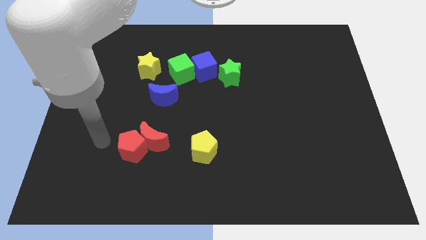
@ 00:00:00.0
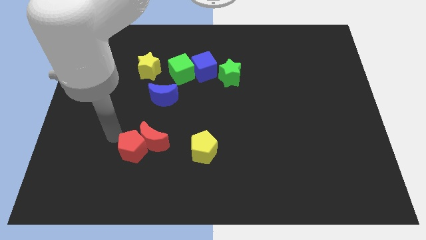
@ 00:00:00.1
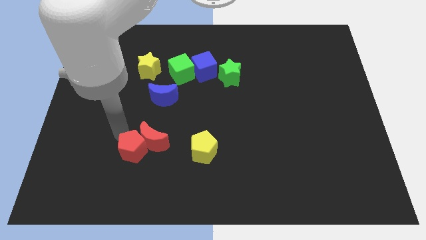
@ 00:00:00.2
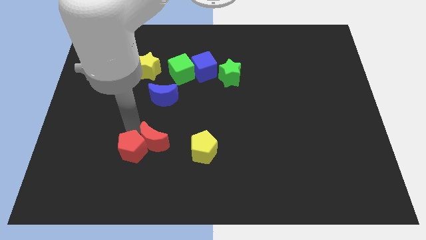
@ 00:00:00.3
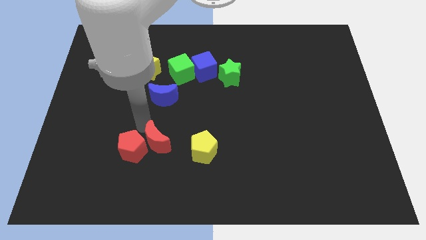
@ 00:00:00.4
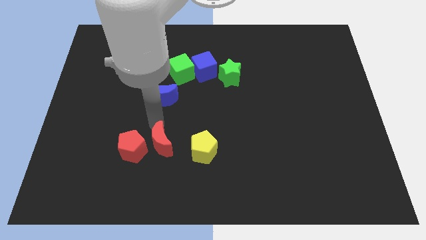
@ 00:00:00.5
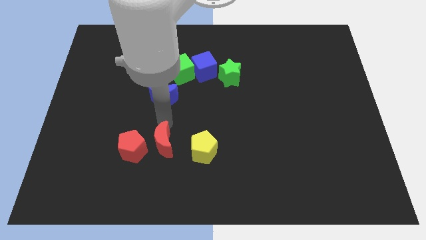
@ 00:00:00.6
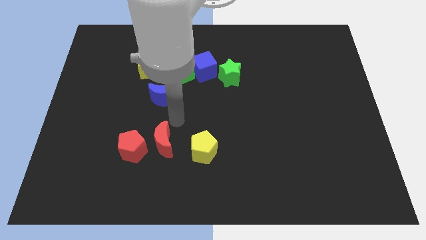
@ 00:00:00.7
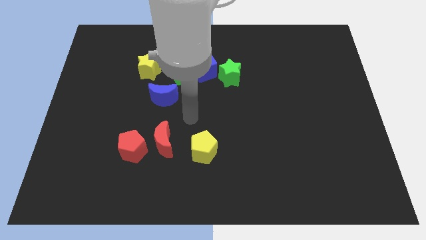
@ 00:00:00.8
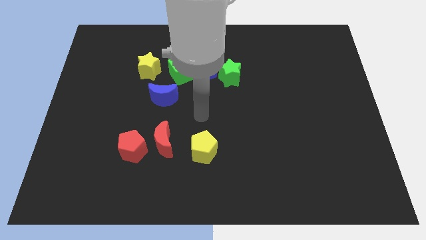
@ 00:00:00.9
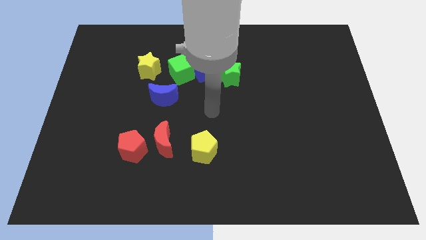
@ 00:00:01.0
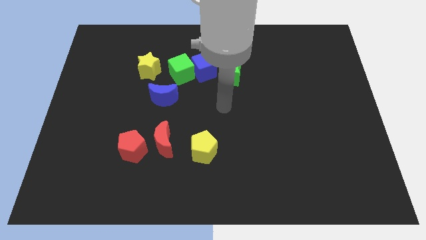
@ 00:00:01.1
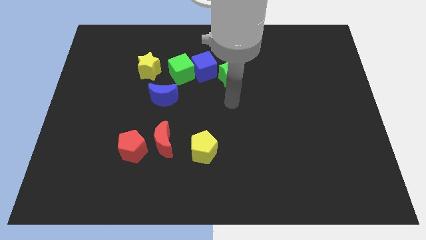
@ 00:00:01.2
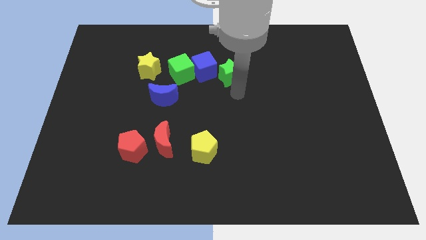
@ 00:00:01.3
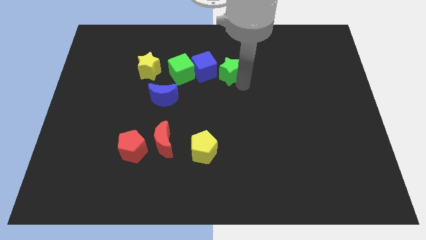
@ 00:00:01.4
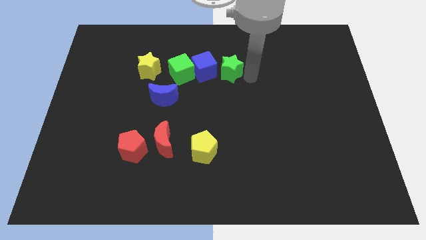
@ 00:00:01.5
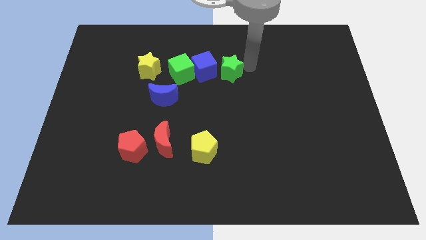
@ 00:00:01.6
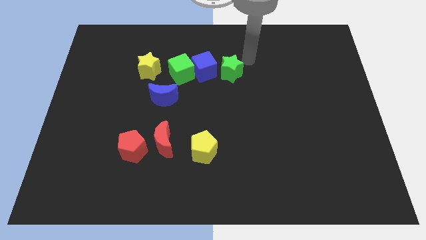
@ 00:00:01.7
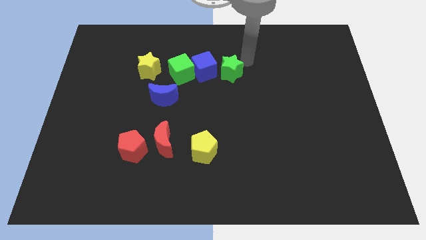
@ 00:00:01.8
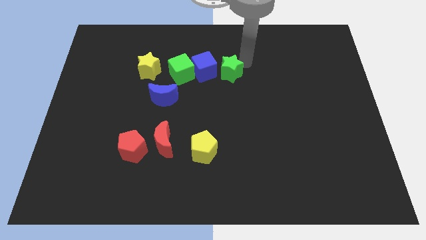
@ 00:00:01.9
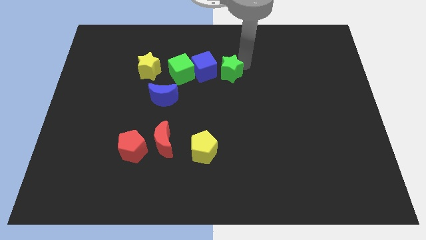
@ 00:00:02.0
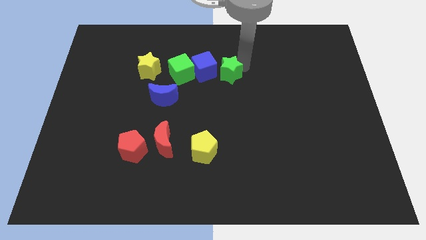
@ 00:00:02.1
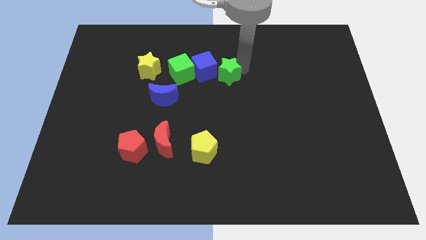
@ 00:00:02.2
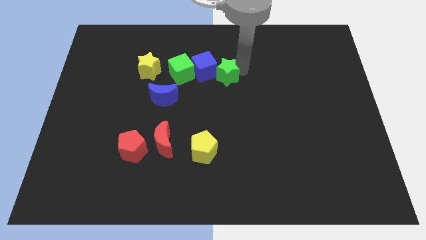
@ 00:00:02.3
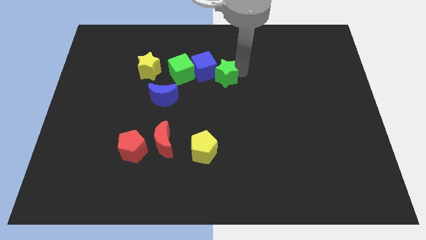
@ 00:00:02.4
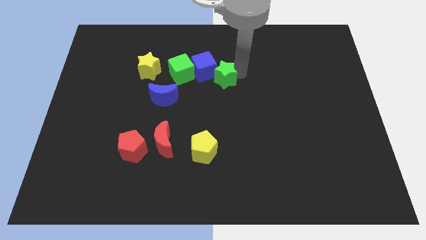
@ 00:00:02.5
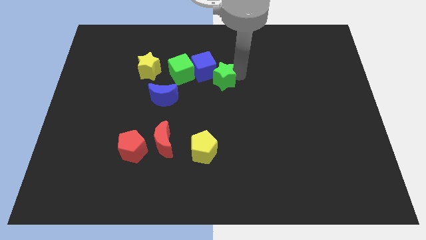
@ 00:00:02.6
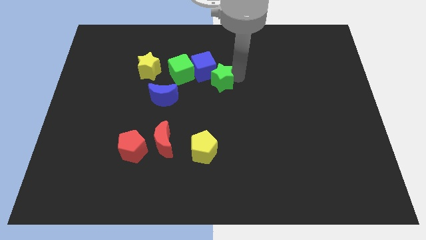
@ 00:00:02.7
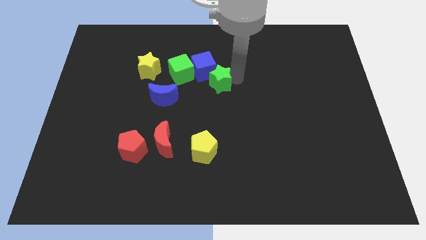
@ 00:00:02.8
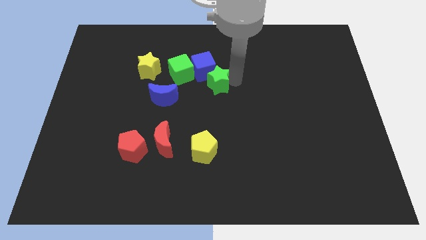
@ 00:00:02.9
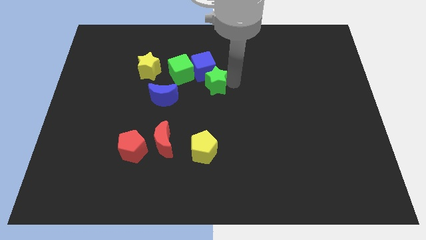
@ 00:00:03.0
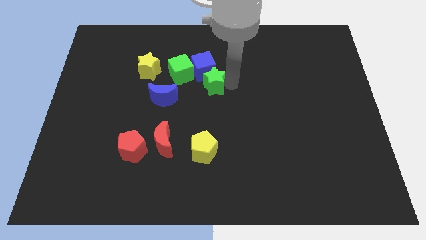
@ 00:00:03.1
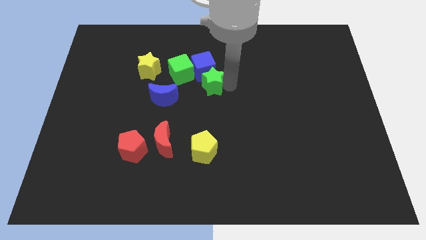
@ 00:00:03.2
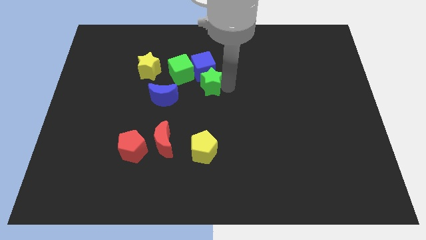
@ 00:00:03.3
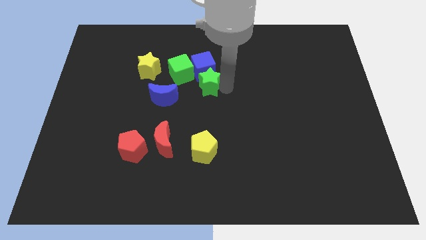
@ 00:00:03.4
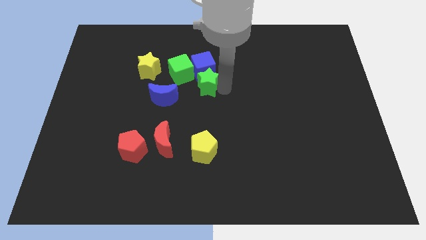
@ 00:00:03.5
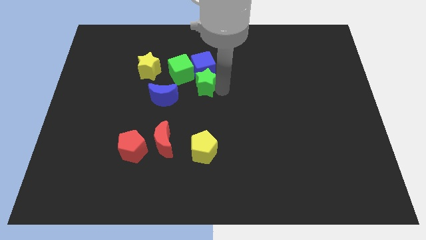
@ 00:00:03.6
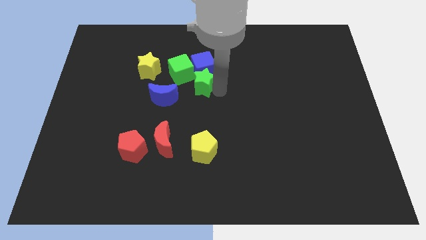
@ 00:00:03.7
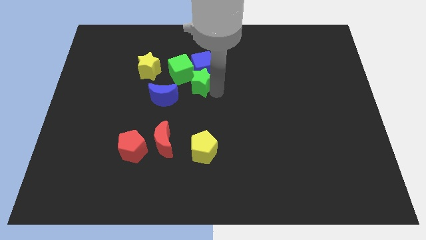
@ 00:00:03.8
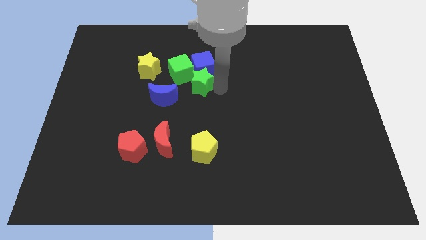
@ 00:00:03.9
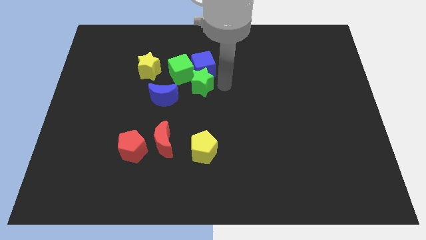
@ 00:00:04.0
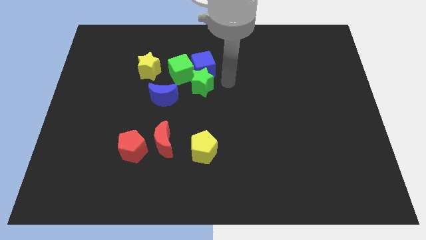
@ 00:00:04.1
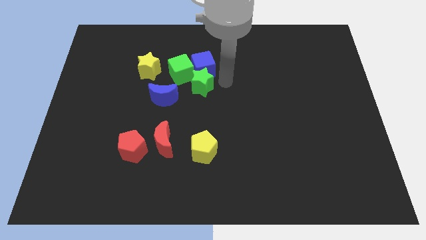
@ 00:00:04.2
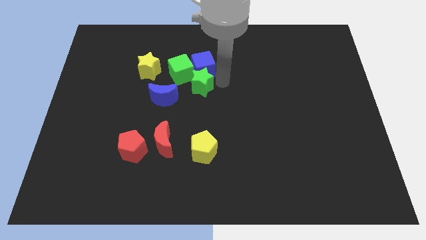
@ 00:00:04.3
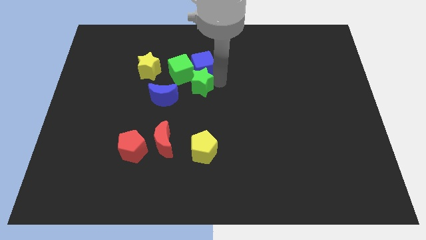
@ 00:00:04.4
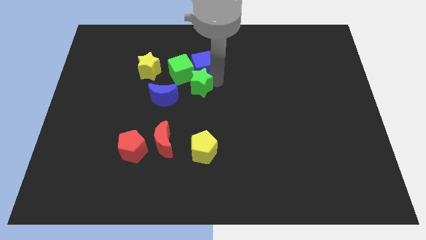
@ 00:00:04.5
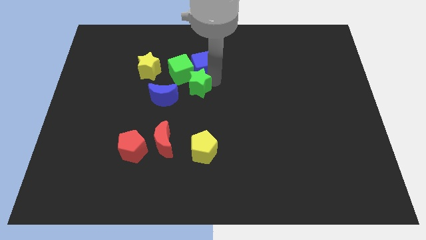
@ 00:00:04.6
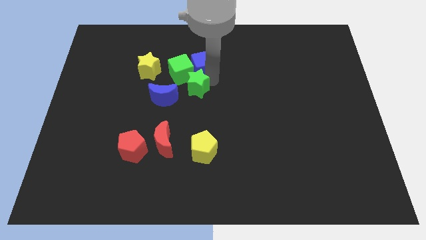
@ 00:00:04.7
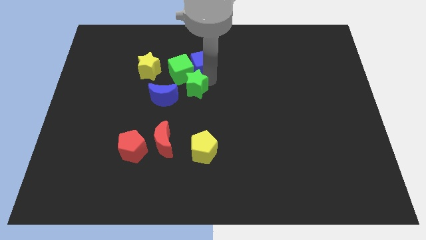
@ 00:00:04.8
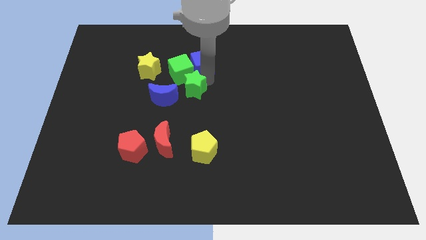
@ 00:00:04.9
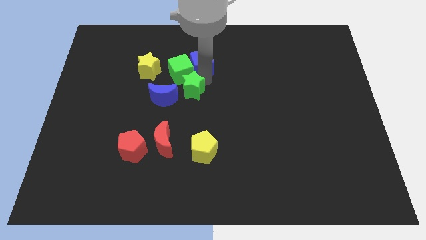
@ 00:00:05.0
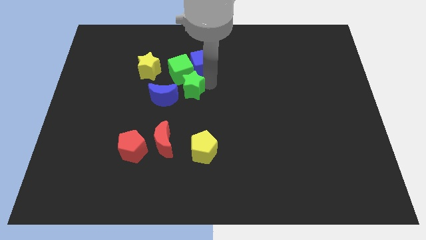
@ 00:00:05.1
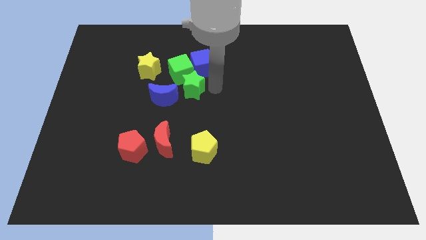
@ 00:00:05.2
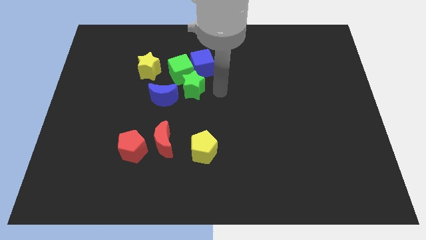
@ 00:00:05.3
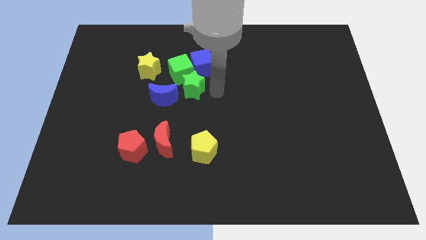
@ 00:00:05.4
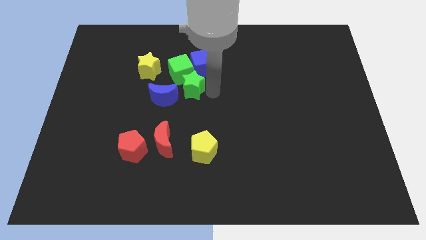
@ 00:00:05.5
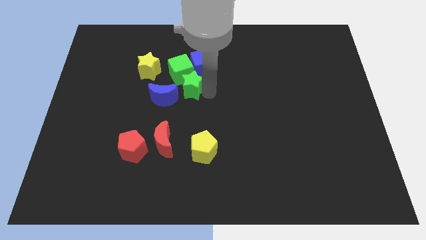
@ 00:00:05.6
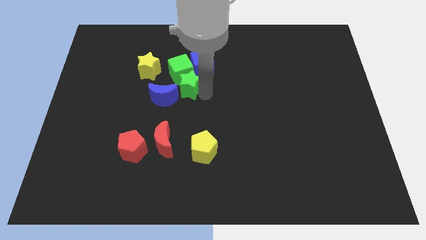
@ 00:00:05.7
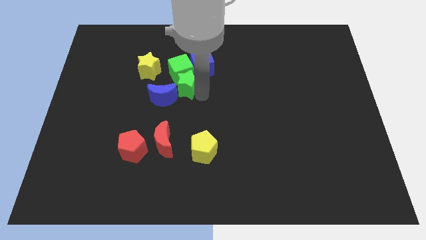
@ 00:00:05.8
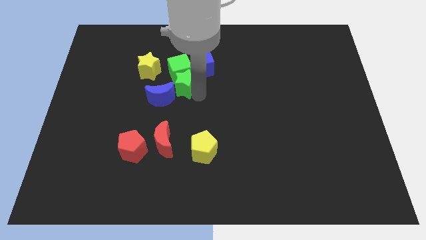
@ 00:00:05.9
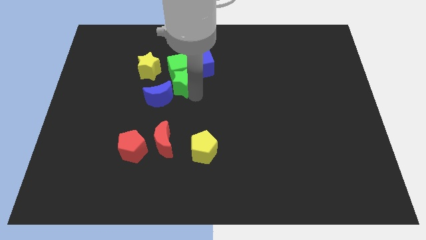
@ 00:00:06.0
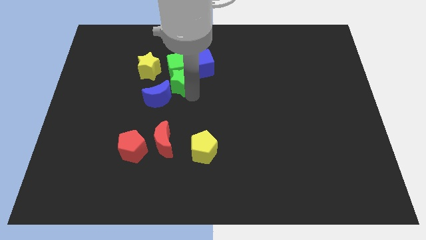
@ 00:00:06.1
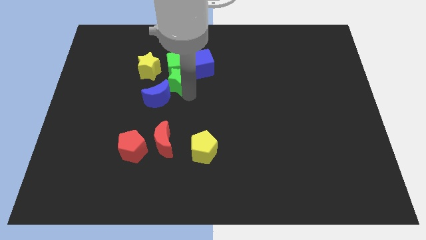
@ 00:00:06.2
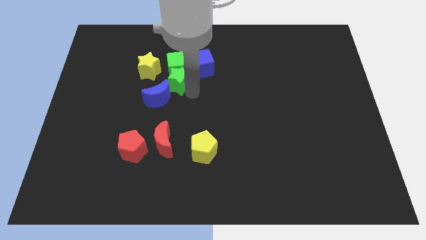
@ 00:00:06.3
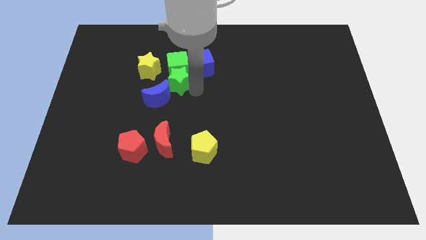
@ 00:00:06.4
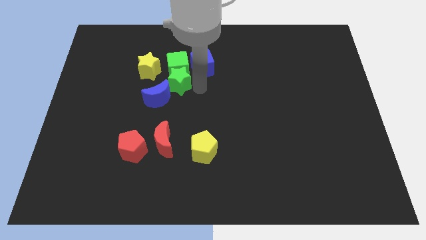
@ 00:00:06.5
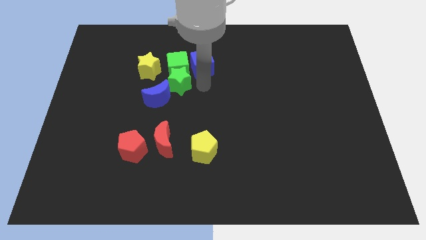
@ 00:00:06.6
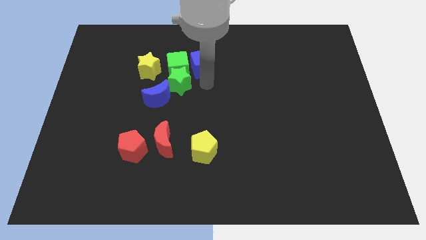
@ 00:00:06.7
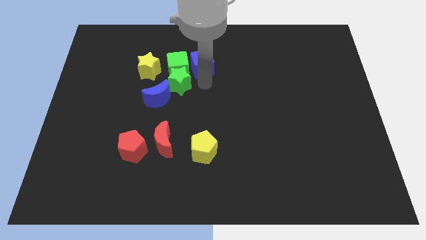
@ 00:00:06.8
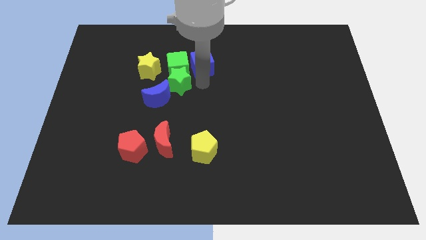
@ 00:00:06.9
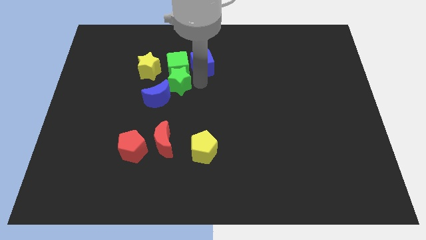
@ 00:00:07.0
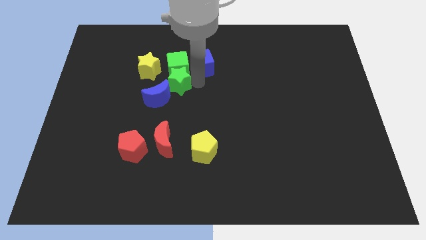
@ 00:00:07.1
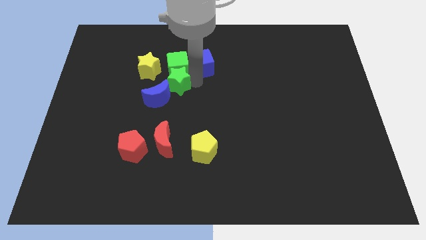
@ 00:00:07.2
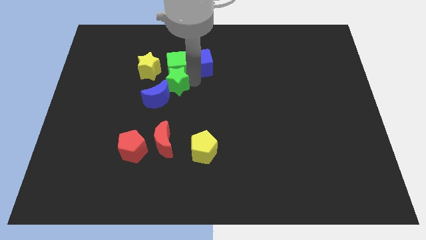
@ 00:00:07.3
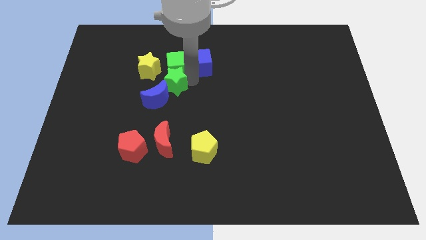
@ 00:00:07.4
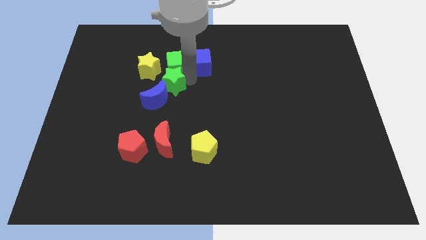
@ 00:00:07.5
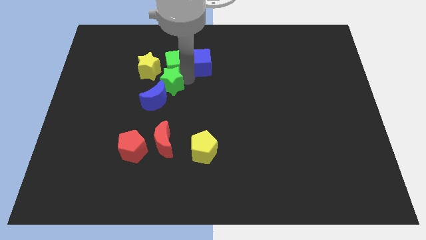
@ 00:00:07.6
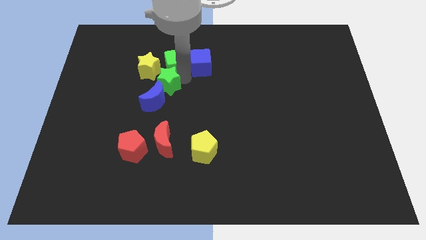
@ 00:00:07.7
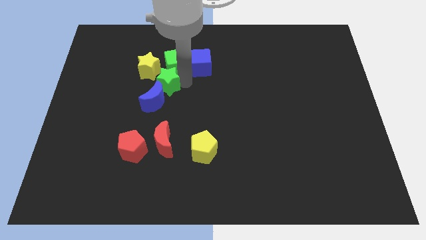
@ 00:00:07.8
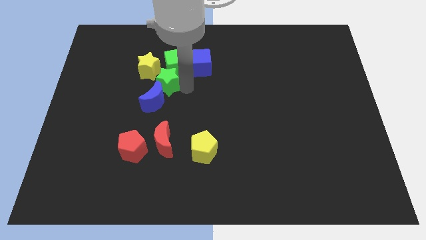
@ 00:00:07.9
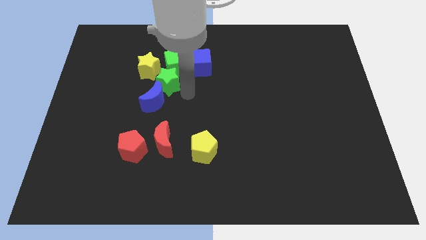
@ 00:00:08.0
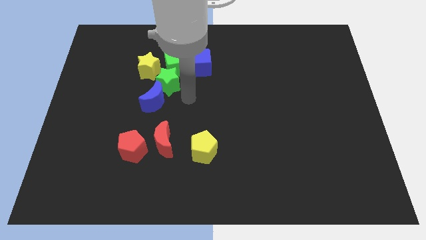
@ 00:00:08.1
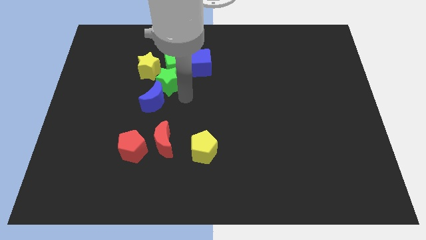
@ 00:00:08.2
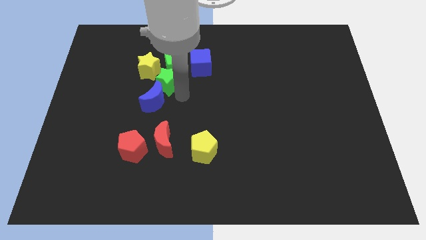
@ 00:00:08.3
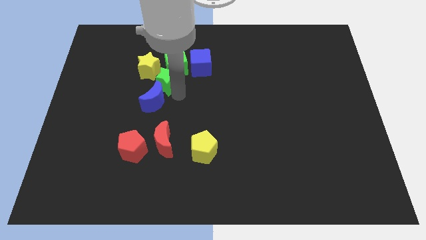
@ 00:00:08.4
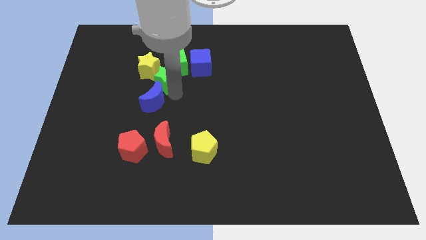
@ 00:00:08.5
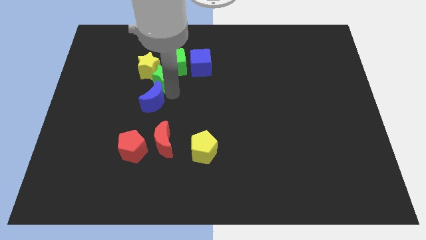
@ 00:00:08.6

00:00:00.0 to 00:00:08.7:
push the green star next to the yellow star
